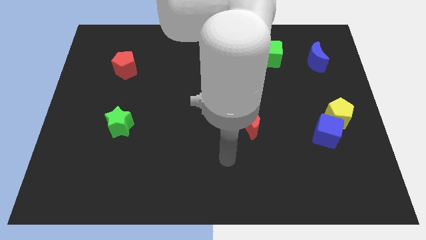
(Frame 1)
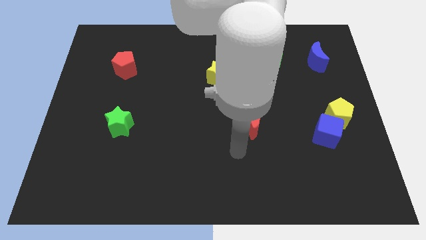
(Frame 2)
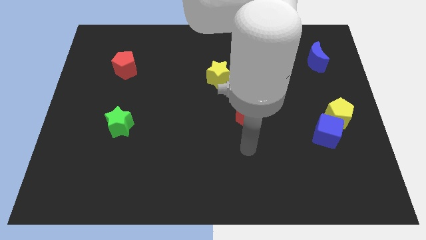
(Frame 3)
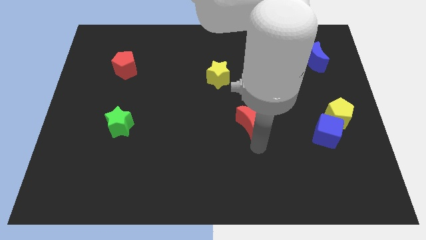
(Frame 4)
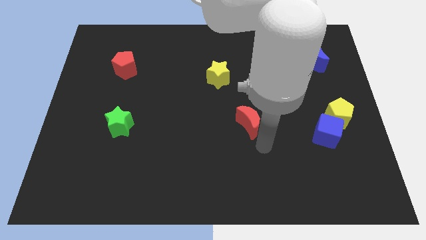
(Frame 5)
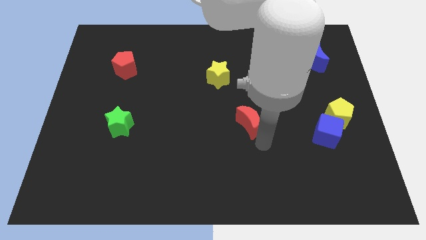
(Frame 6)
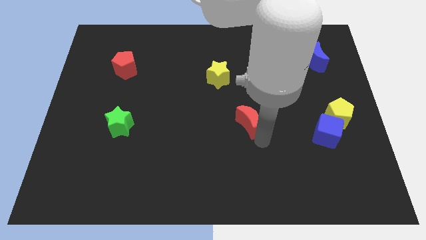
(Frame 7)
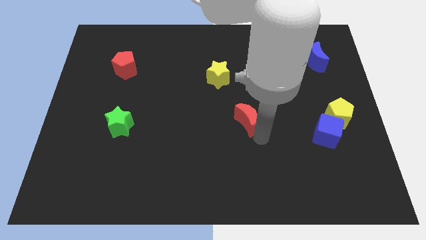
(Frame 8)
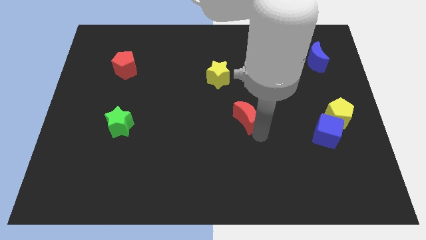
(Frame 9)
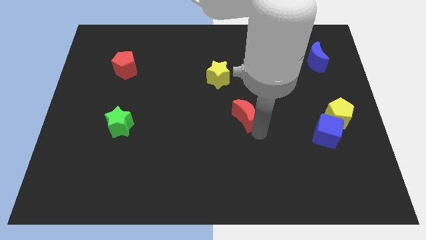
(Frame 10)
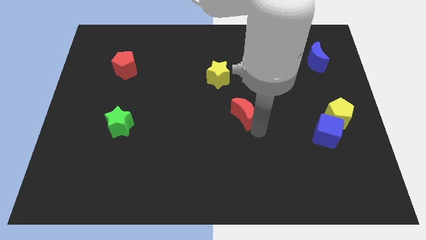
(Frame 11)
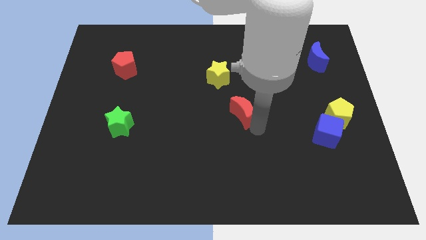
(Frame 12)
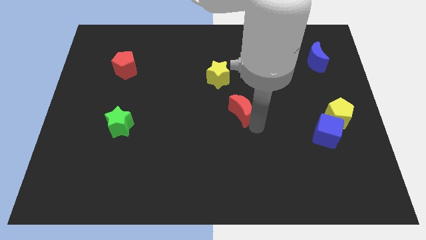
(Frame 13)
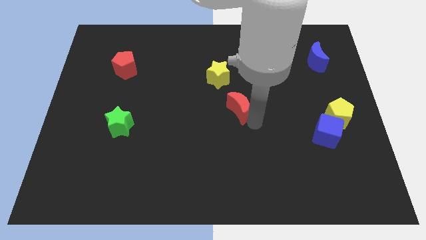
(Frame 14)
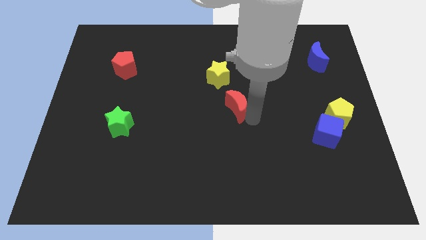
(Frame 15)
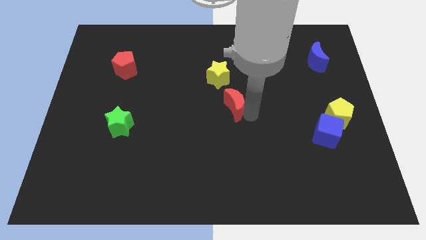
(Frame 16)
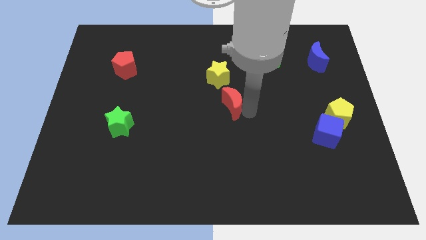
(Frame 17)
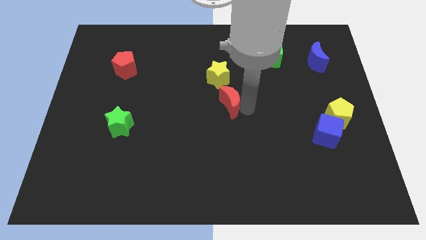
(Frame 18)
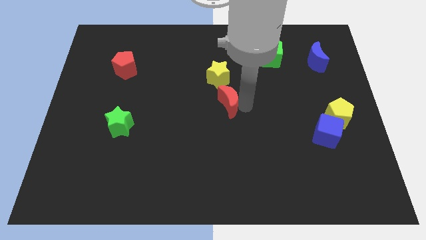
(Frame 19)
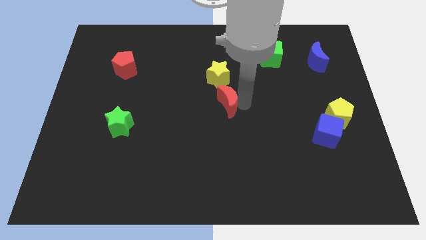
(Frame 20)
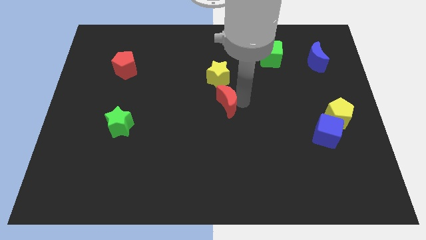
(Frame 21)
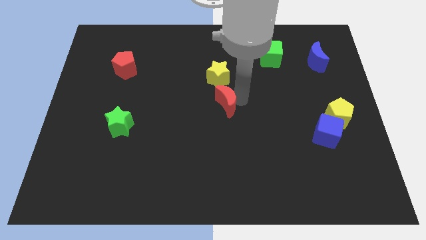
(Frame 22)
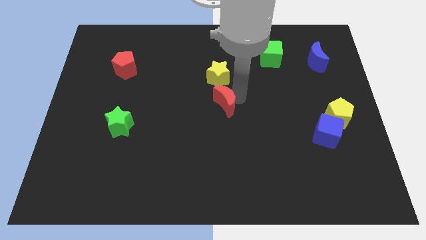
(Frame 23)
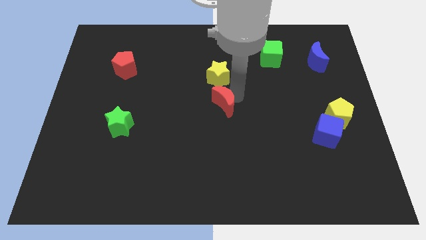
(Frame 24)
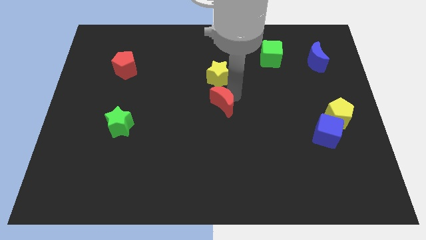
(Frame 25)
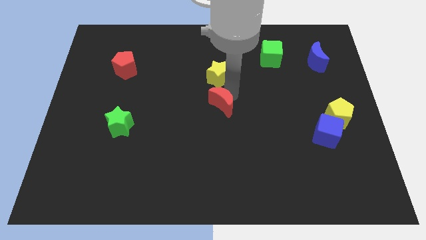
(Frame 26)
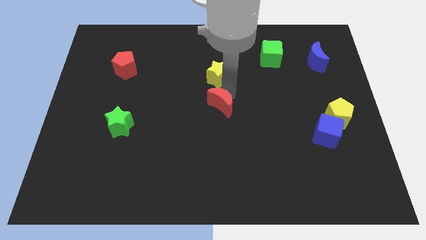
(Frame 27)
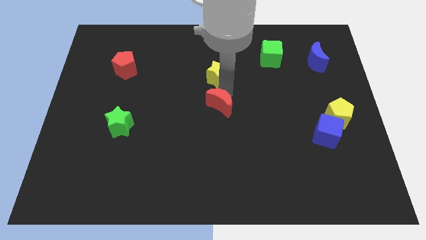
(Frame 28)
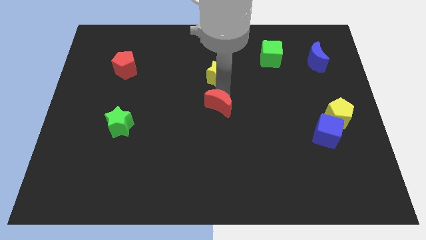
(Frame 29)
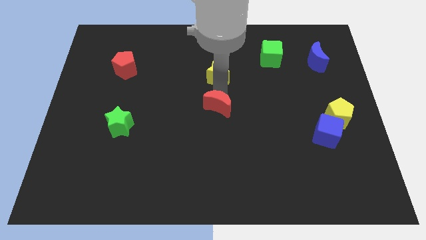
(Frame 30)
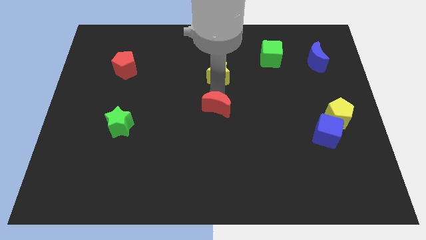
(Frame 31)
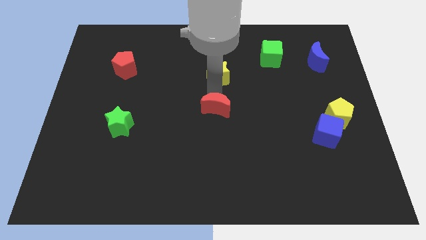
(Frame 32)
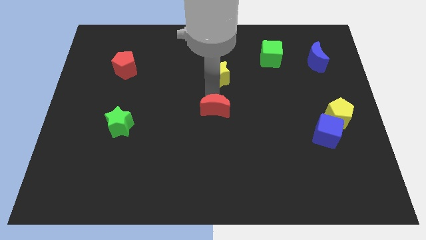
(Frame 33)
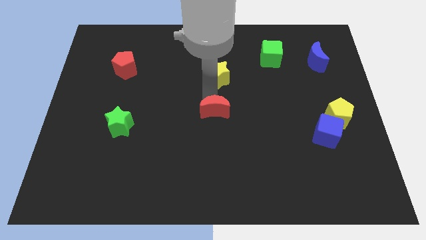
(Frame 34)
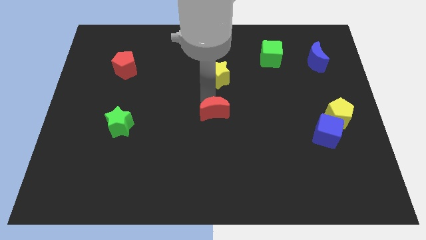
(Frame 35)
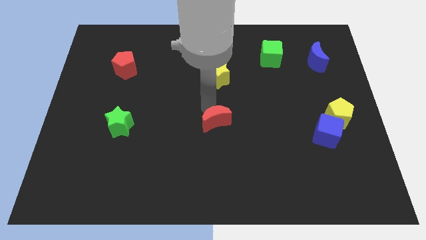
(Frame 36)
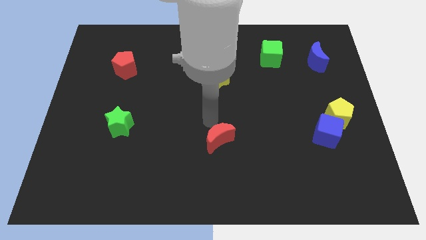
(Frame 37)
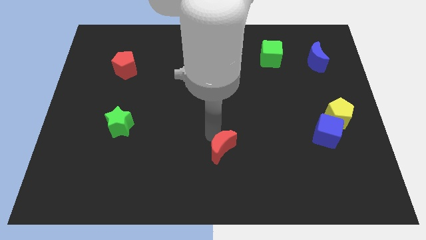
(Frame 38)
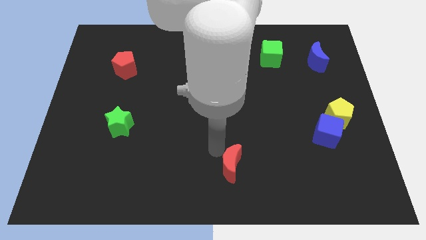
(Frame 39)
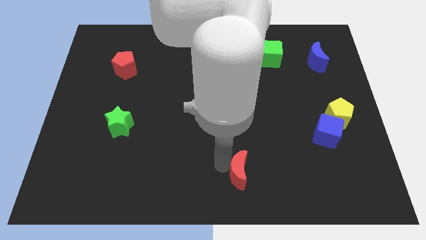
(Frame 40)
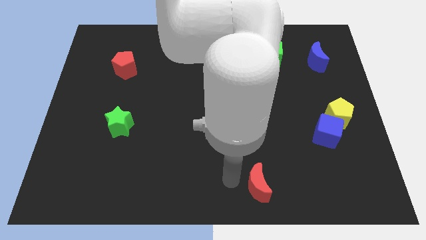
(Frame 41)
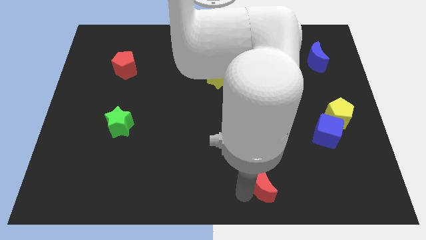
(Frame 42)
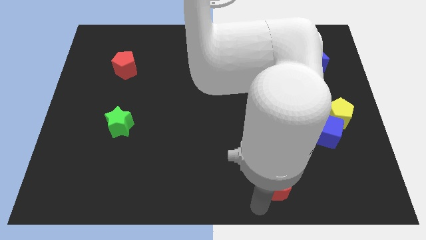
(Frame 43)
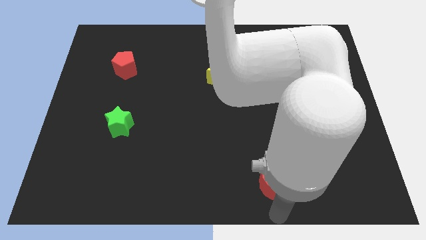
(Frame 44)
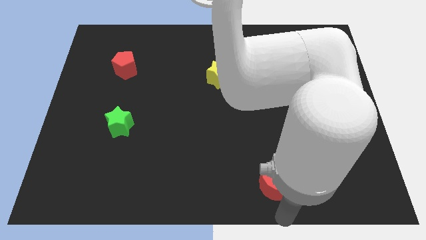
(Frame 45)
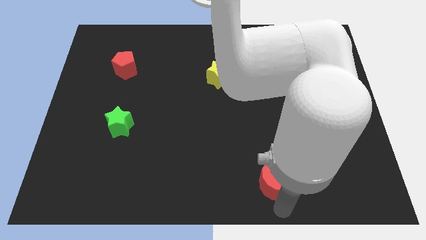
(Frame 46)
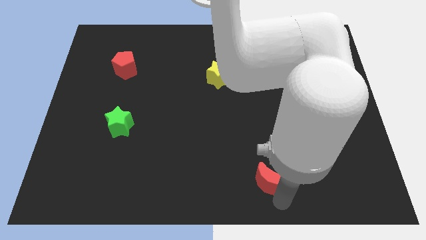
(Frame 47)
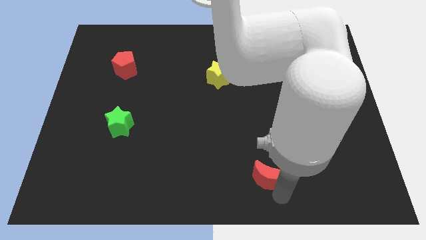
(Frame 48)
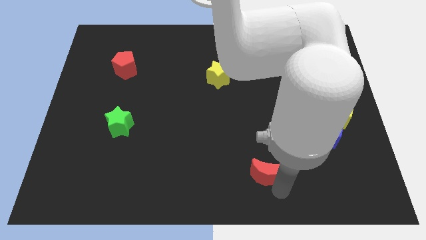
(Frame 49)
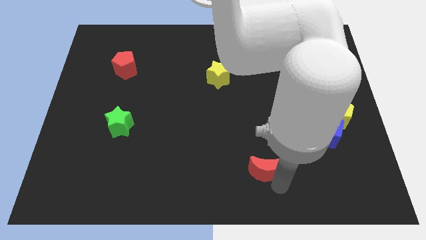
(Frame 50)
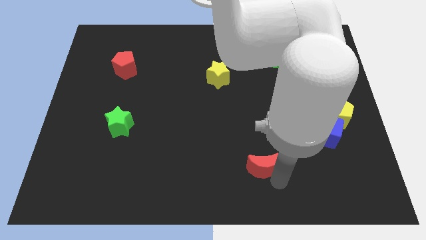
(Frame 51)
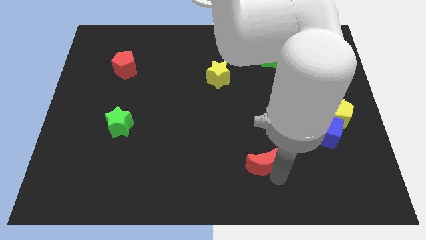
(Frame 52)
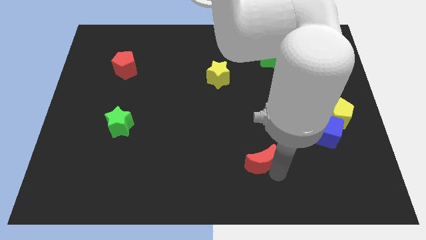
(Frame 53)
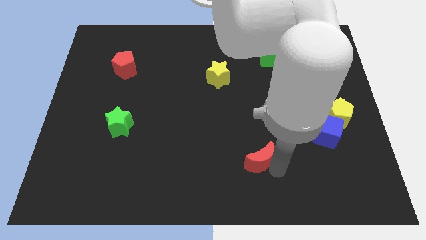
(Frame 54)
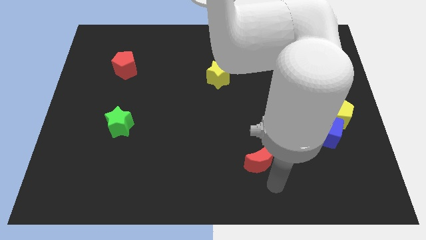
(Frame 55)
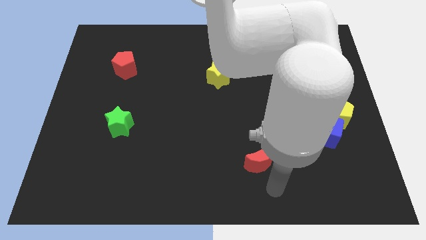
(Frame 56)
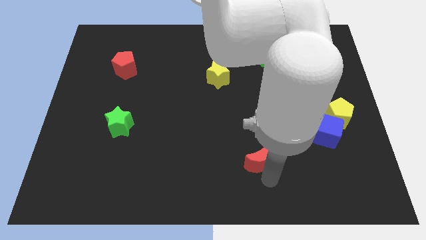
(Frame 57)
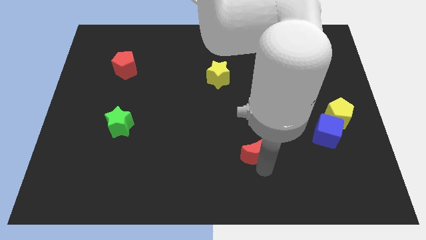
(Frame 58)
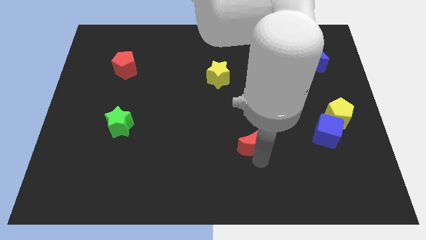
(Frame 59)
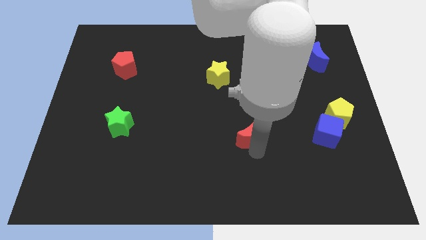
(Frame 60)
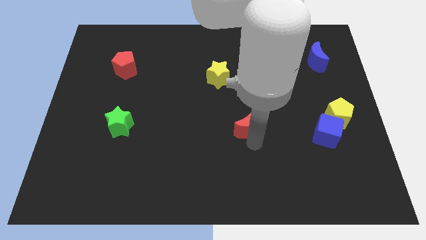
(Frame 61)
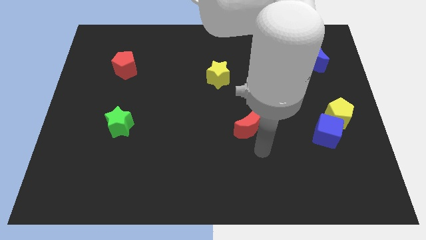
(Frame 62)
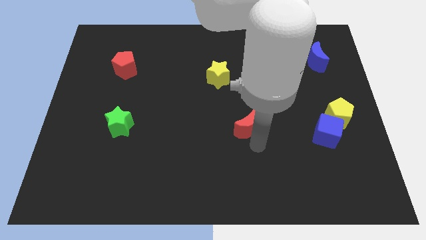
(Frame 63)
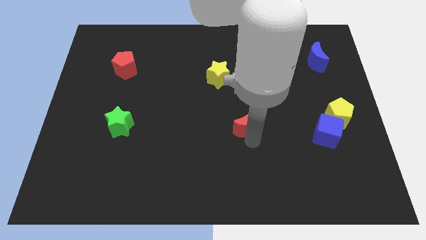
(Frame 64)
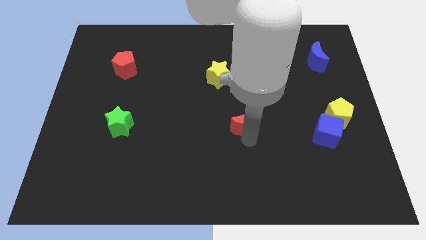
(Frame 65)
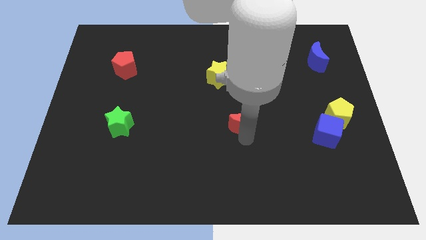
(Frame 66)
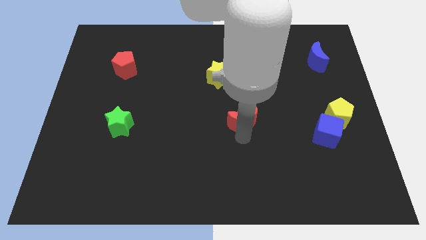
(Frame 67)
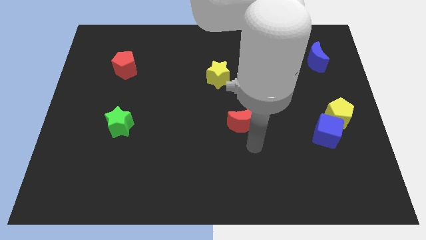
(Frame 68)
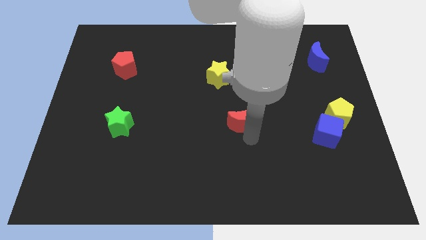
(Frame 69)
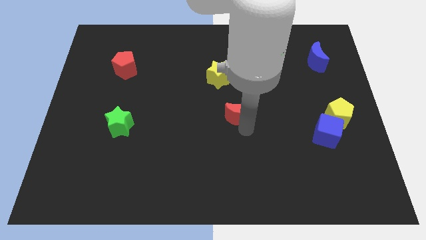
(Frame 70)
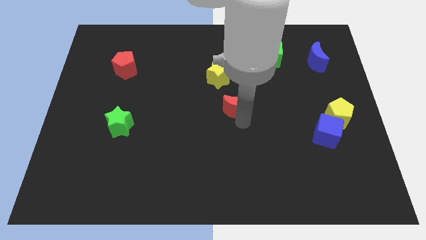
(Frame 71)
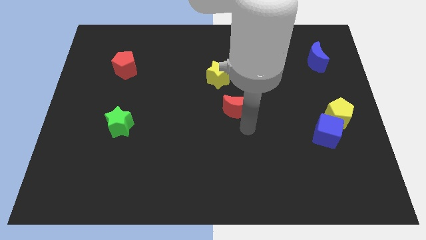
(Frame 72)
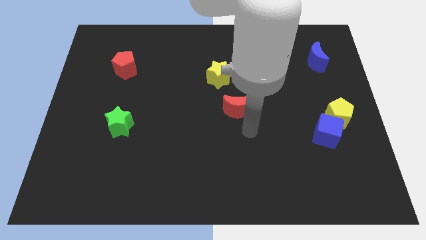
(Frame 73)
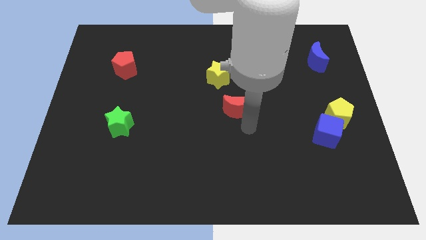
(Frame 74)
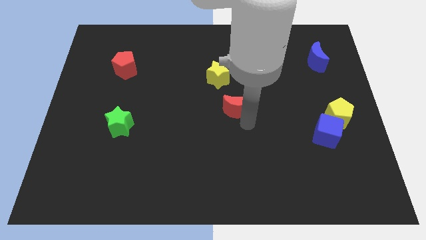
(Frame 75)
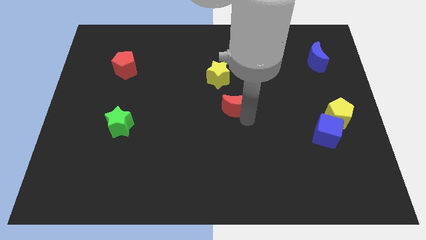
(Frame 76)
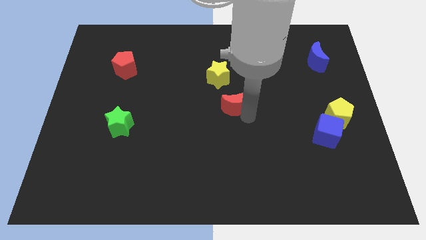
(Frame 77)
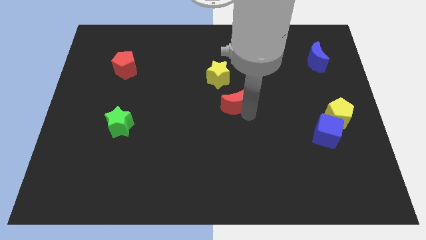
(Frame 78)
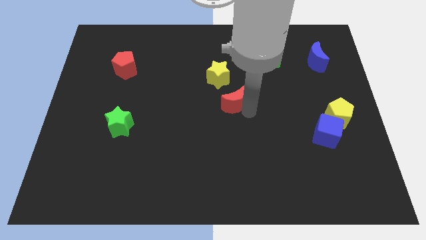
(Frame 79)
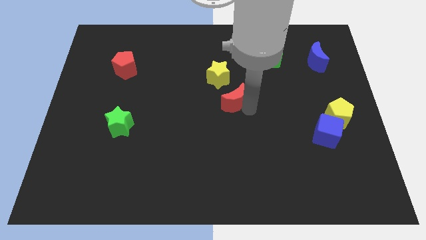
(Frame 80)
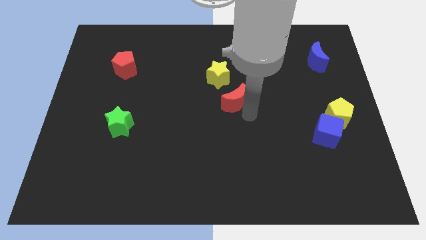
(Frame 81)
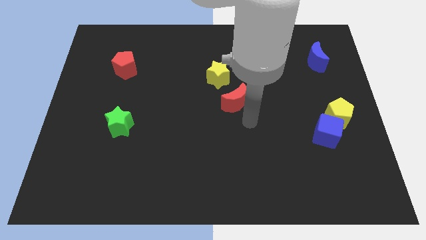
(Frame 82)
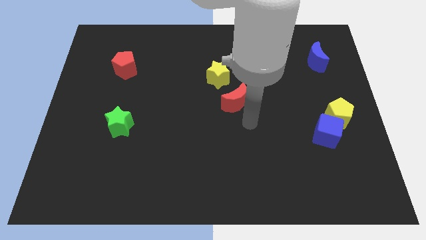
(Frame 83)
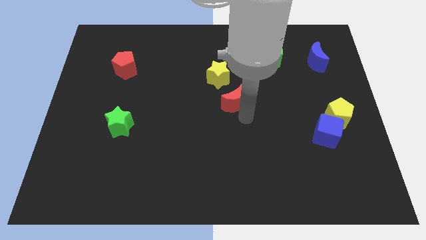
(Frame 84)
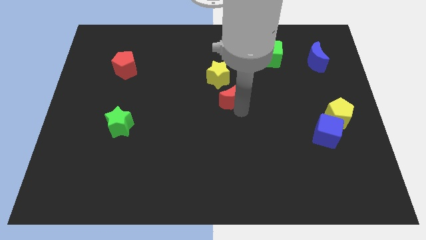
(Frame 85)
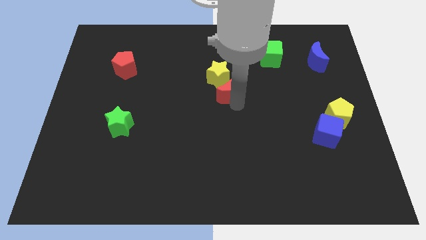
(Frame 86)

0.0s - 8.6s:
put the red moon to the yellow star
